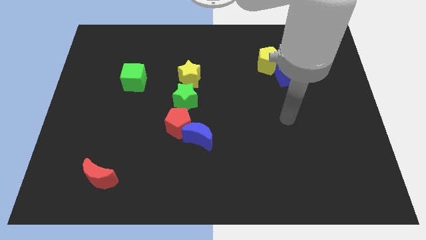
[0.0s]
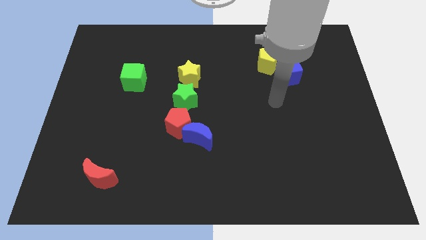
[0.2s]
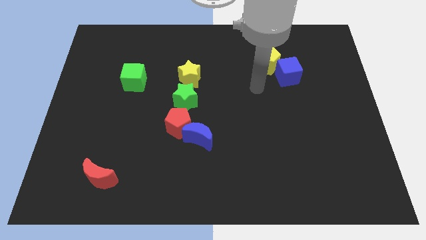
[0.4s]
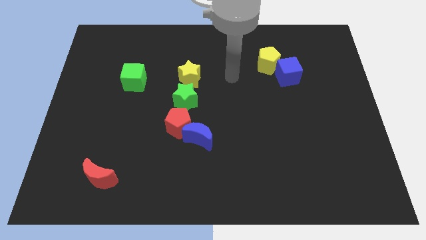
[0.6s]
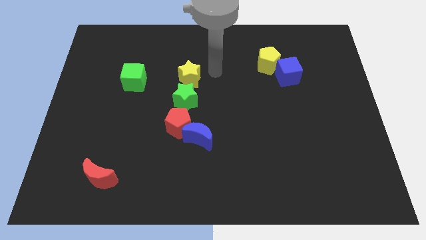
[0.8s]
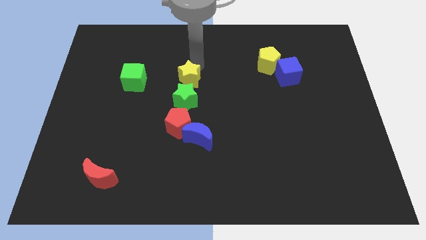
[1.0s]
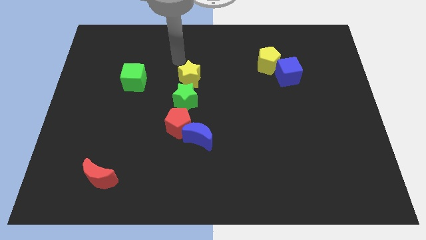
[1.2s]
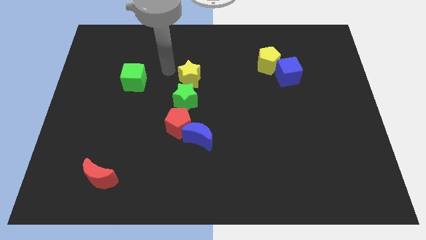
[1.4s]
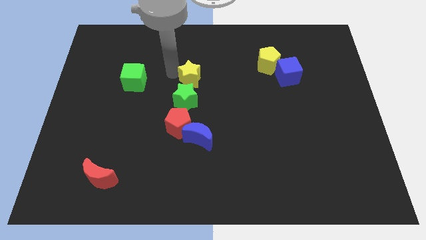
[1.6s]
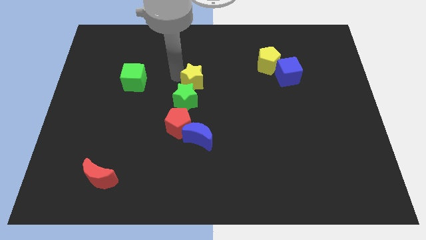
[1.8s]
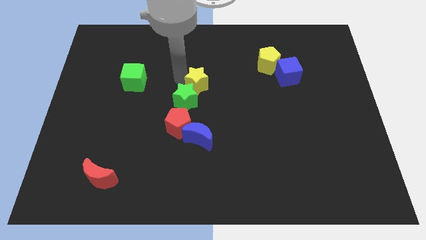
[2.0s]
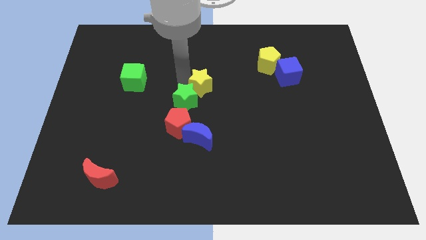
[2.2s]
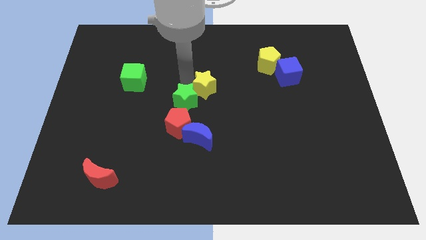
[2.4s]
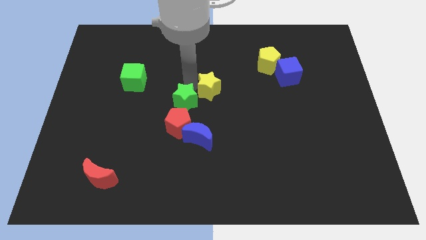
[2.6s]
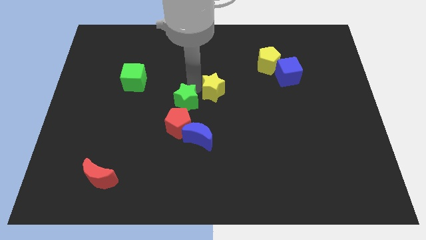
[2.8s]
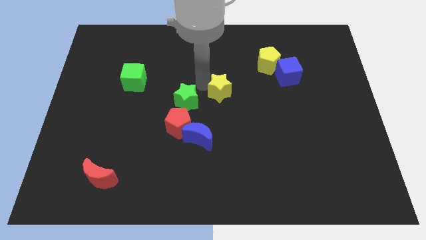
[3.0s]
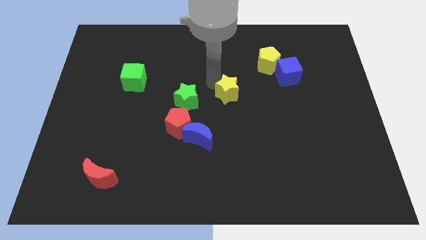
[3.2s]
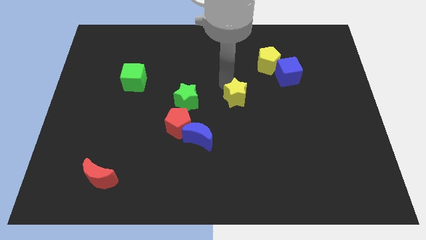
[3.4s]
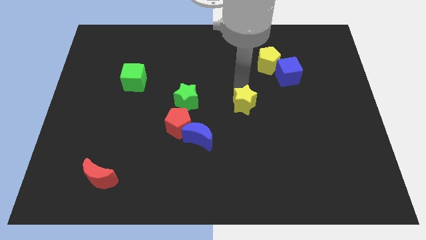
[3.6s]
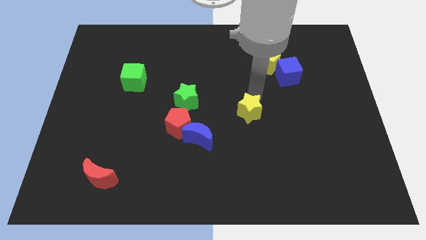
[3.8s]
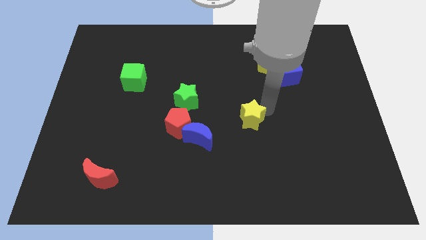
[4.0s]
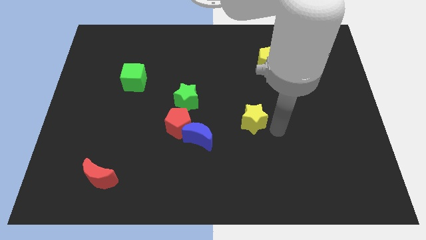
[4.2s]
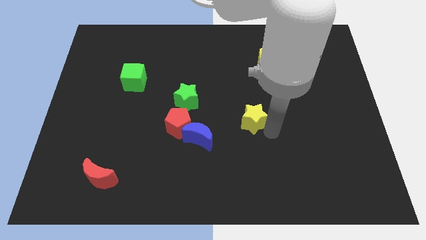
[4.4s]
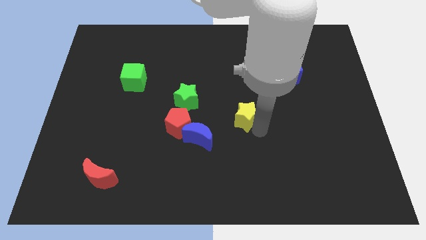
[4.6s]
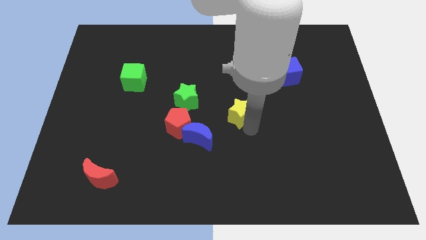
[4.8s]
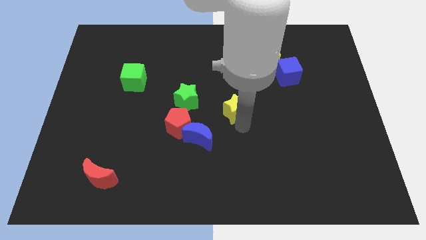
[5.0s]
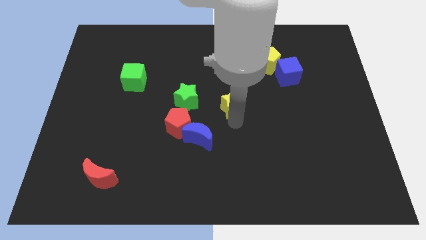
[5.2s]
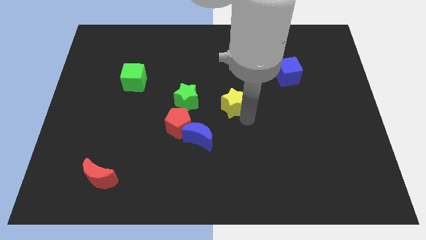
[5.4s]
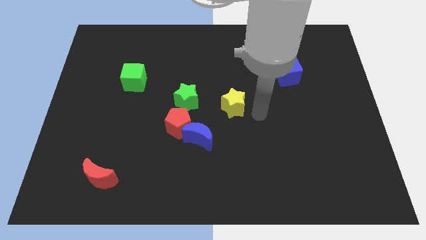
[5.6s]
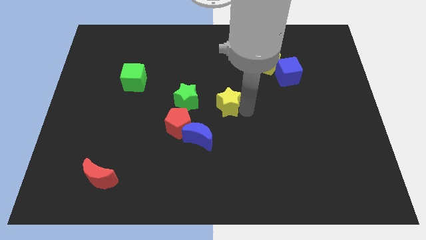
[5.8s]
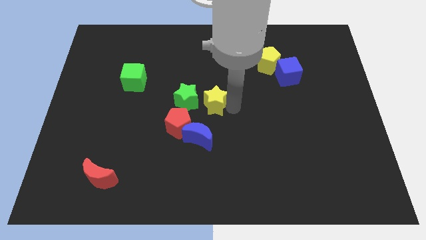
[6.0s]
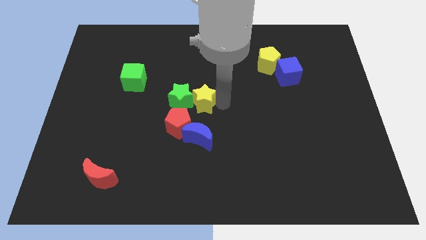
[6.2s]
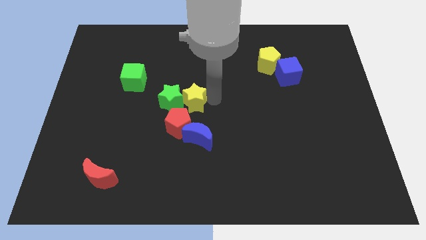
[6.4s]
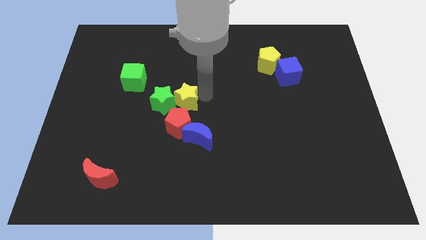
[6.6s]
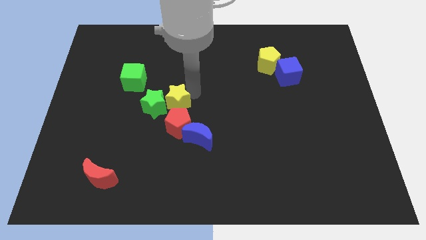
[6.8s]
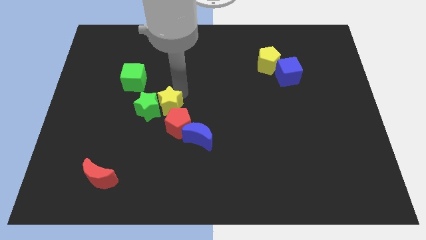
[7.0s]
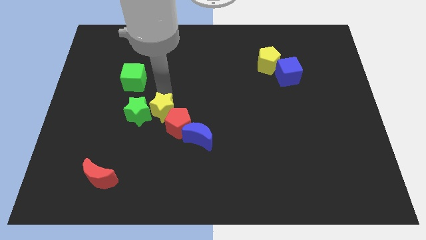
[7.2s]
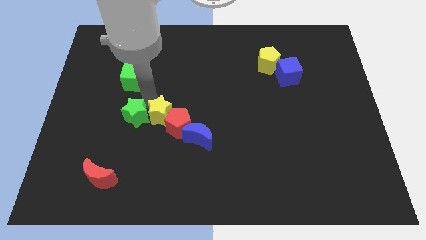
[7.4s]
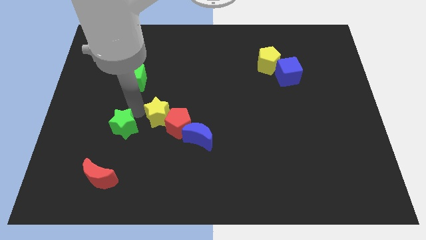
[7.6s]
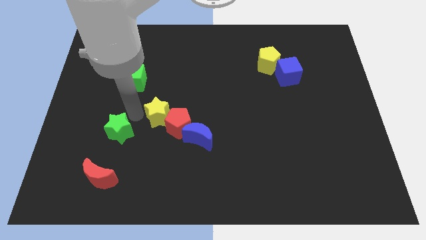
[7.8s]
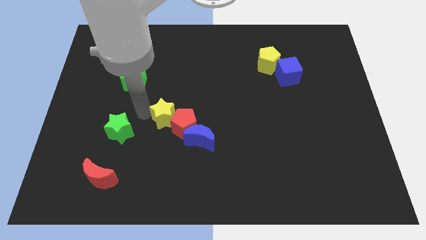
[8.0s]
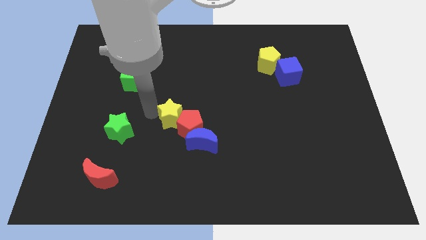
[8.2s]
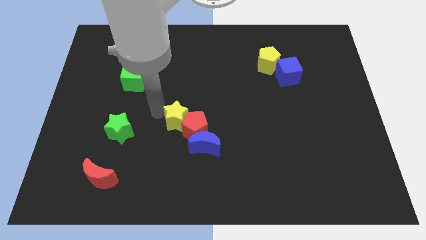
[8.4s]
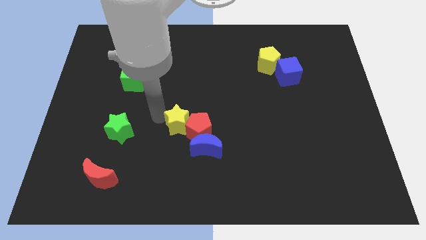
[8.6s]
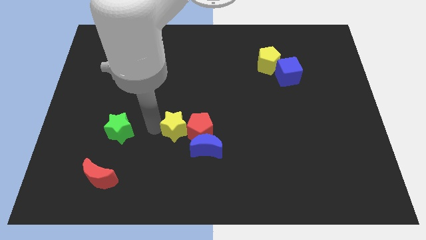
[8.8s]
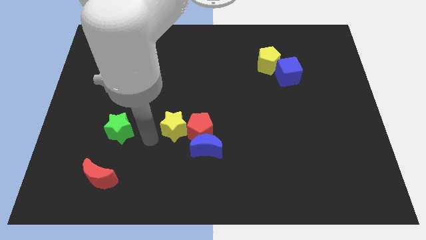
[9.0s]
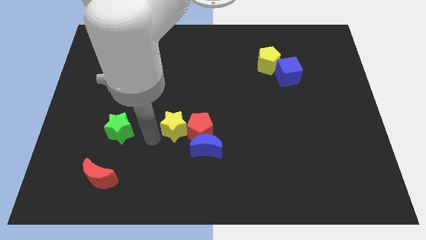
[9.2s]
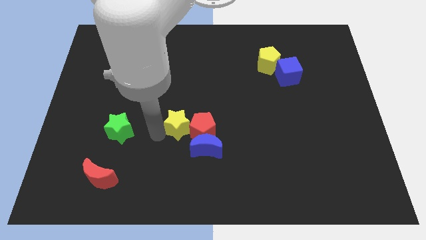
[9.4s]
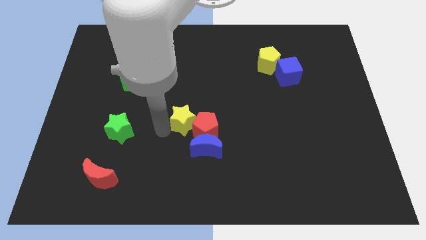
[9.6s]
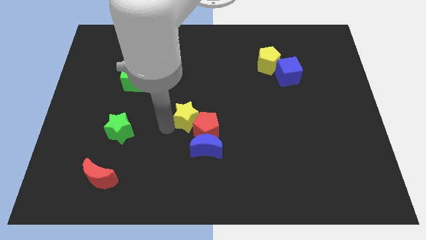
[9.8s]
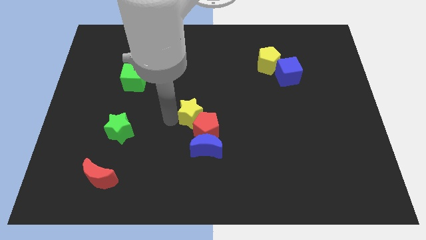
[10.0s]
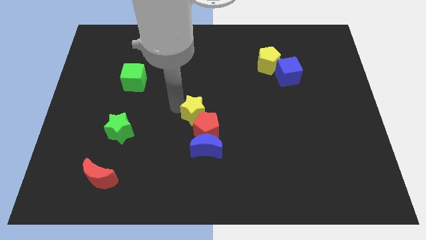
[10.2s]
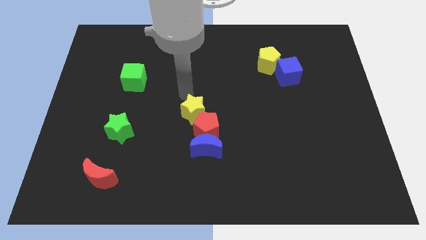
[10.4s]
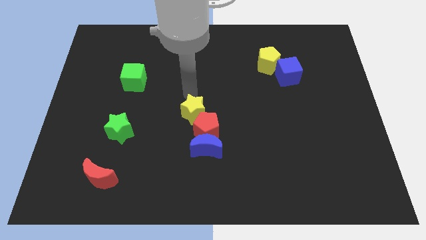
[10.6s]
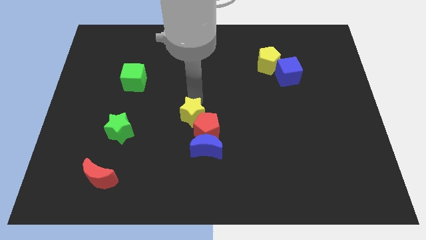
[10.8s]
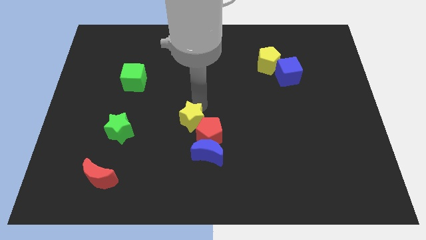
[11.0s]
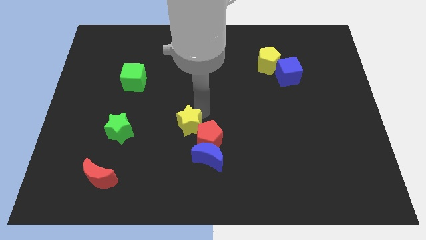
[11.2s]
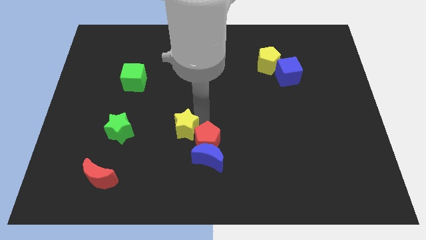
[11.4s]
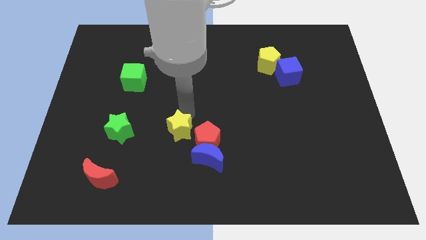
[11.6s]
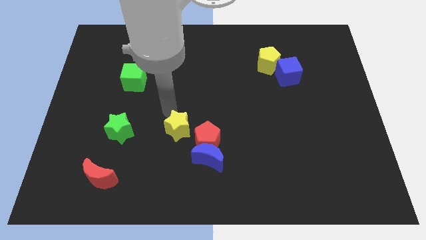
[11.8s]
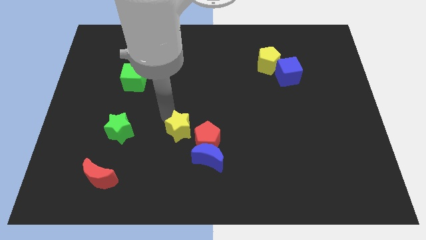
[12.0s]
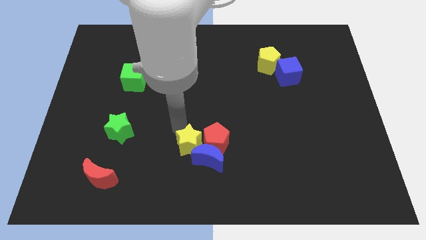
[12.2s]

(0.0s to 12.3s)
slide the yellow star close to the blue moon

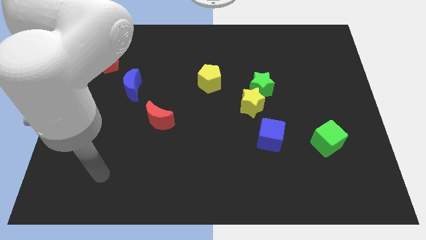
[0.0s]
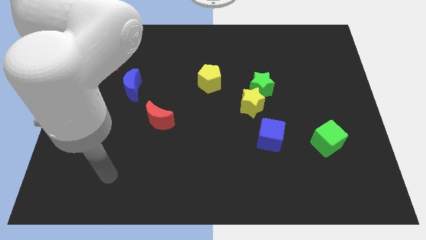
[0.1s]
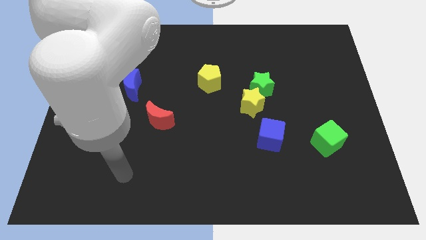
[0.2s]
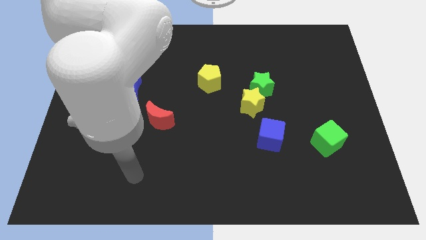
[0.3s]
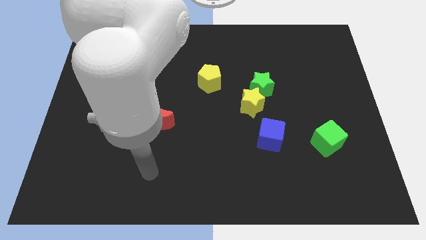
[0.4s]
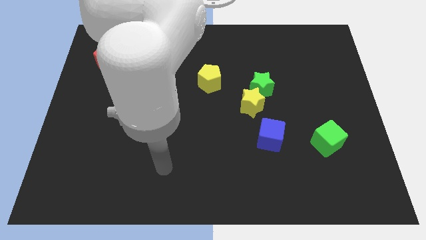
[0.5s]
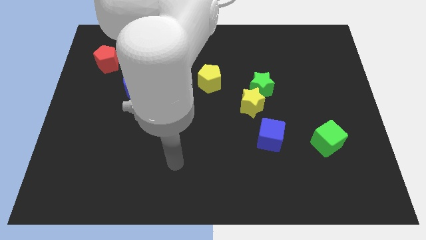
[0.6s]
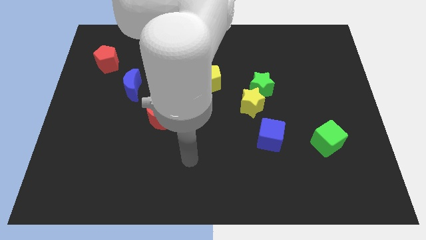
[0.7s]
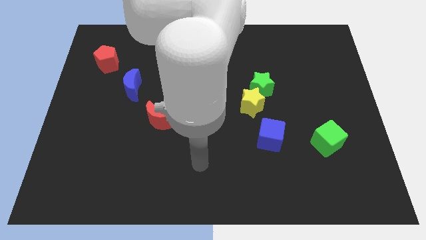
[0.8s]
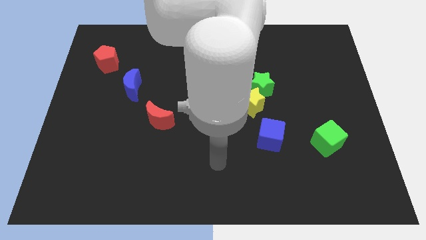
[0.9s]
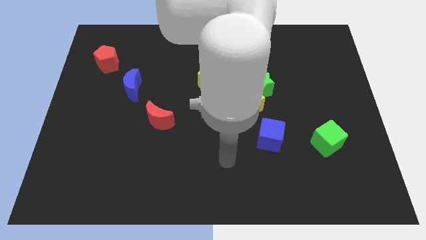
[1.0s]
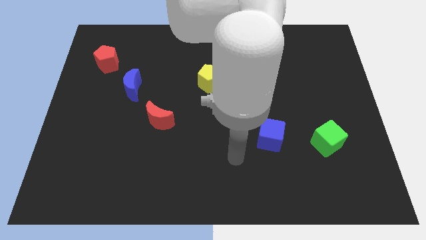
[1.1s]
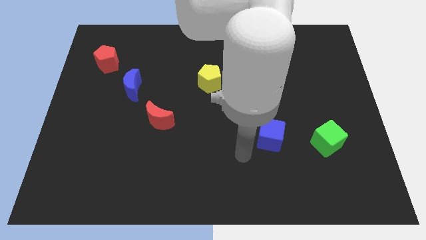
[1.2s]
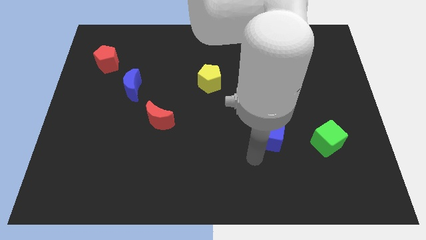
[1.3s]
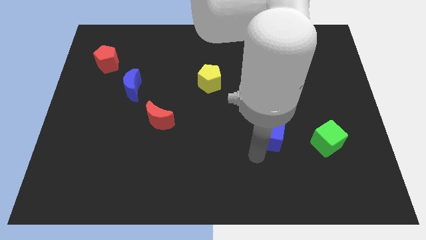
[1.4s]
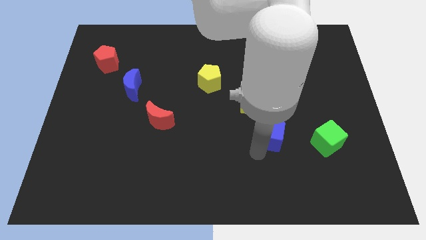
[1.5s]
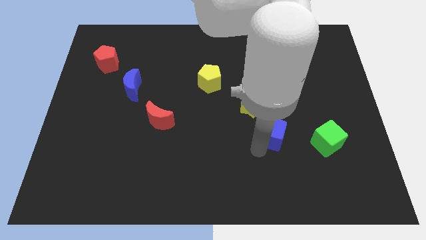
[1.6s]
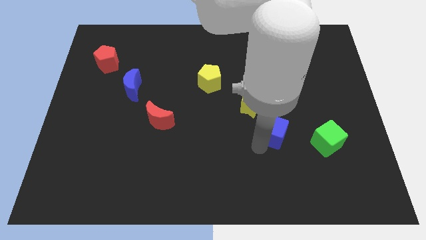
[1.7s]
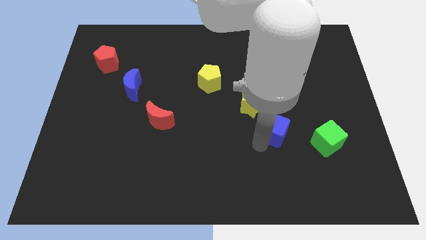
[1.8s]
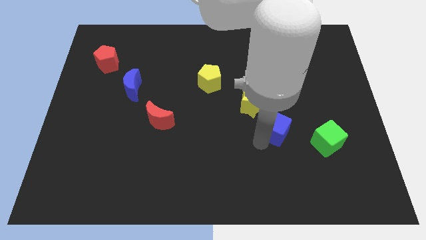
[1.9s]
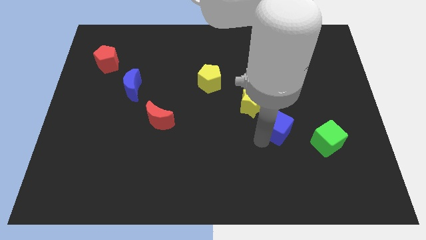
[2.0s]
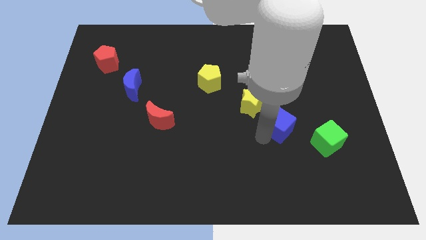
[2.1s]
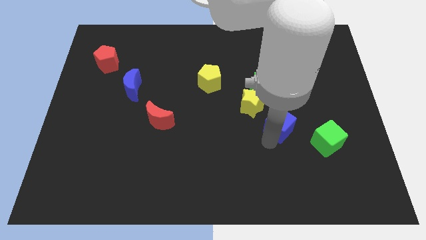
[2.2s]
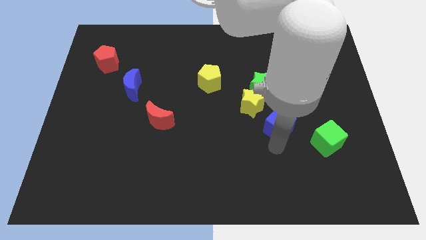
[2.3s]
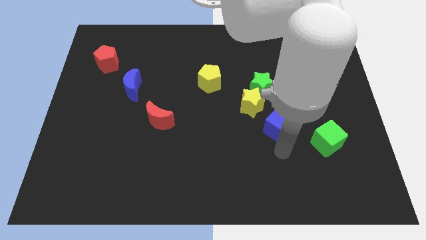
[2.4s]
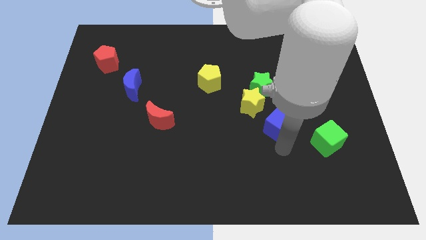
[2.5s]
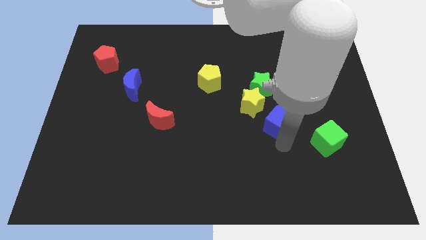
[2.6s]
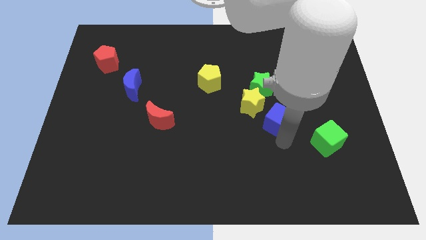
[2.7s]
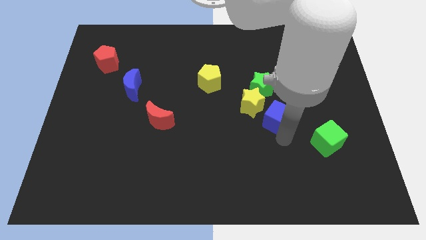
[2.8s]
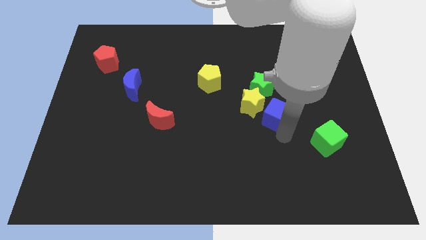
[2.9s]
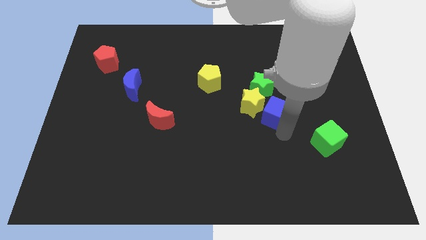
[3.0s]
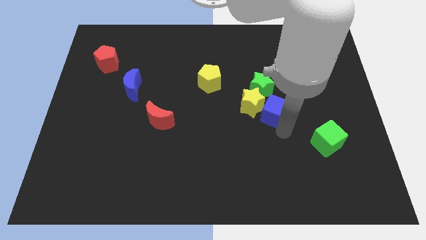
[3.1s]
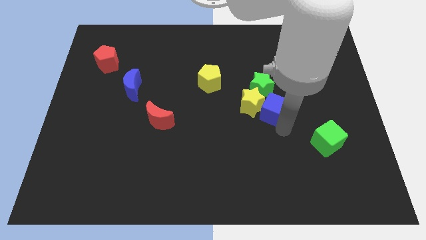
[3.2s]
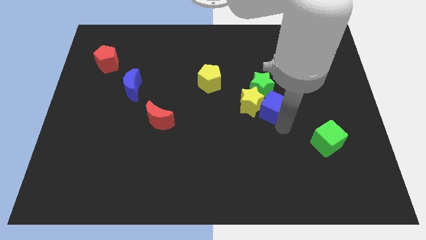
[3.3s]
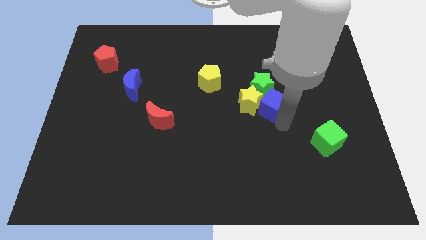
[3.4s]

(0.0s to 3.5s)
push the blue cube to the green star
